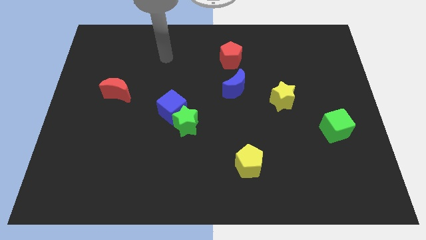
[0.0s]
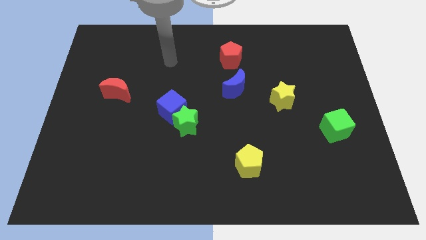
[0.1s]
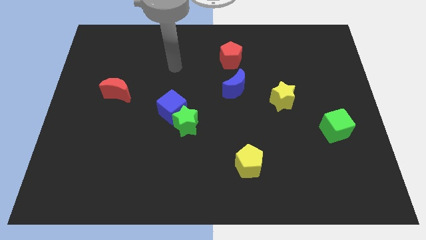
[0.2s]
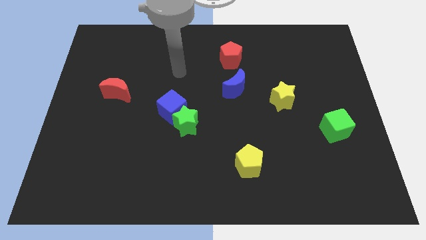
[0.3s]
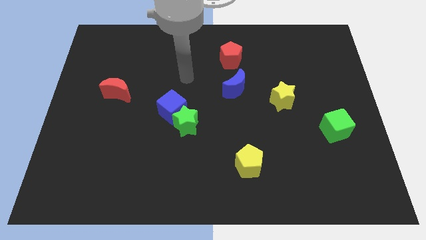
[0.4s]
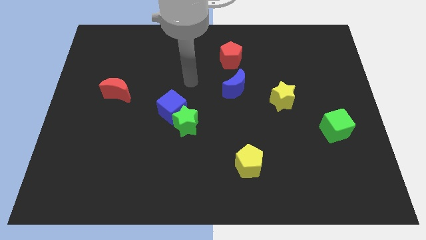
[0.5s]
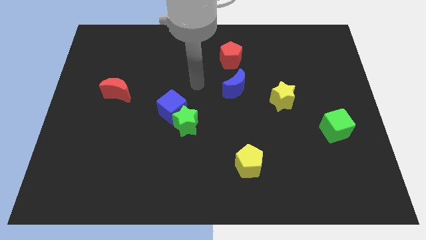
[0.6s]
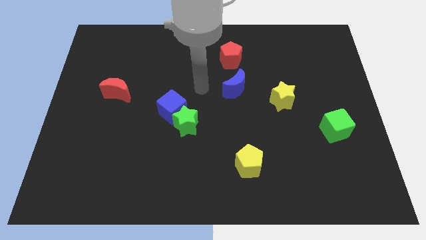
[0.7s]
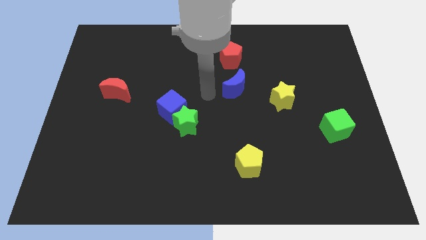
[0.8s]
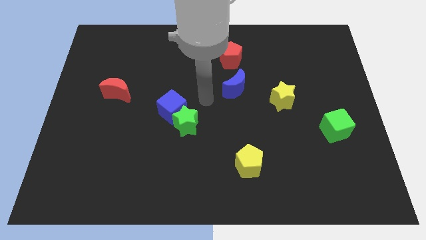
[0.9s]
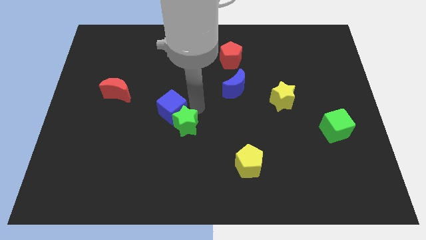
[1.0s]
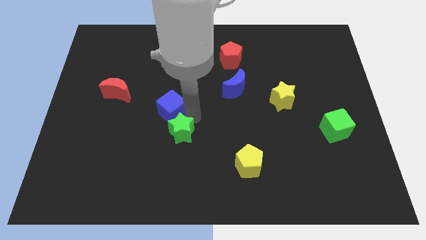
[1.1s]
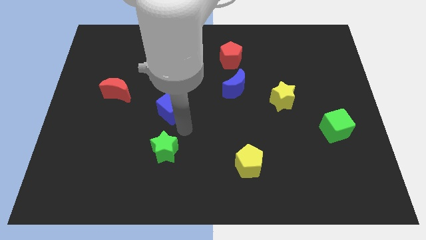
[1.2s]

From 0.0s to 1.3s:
pull the blue cube apart from the green star

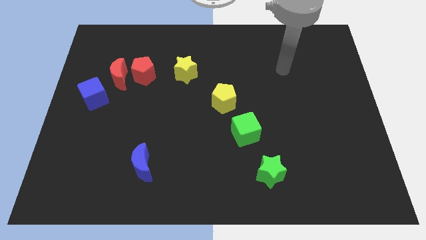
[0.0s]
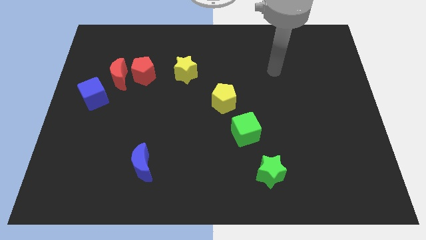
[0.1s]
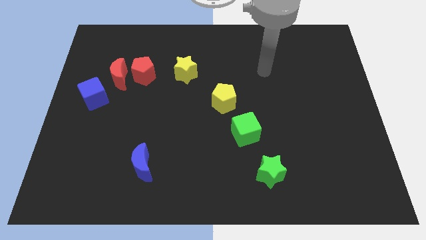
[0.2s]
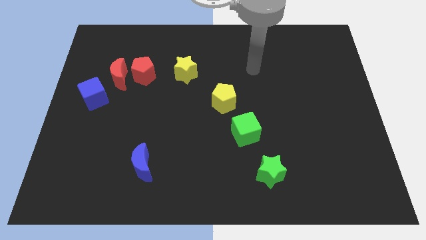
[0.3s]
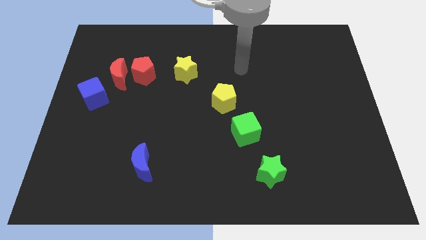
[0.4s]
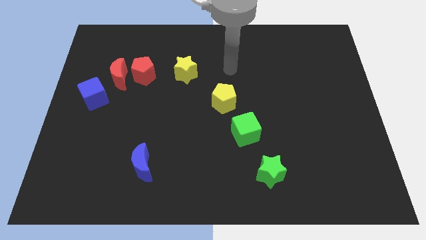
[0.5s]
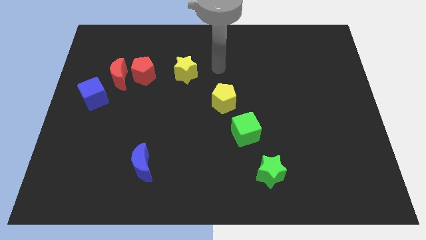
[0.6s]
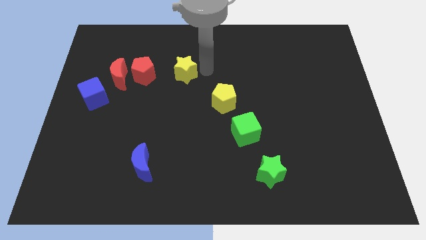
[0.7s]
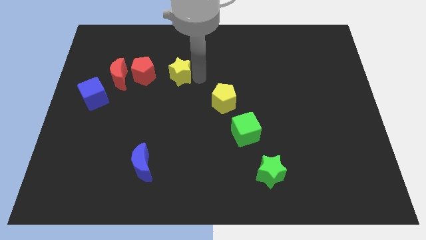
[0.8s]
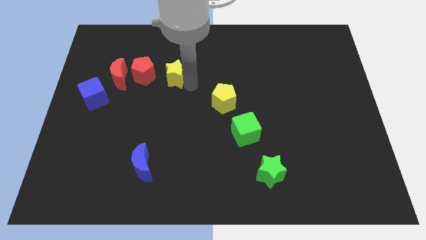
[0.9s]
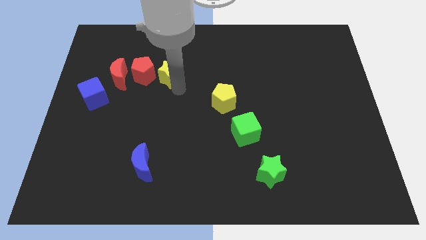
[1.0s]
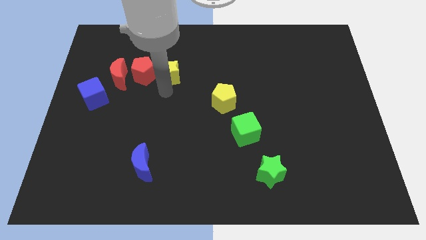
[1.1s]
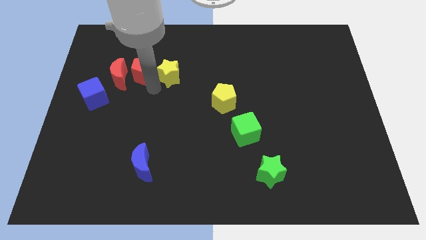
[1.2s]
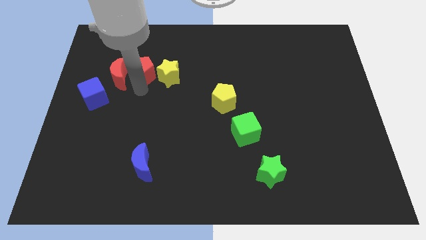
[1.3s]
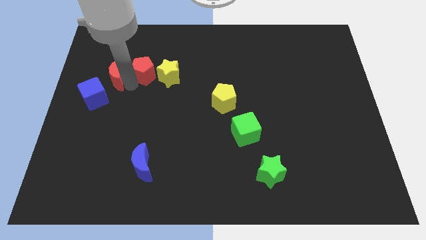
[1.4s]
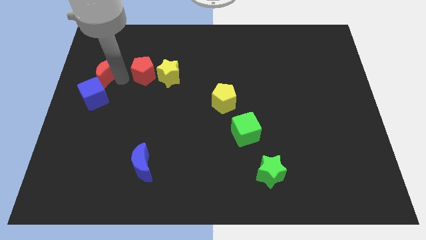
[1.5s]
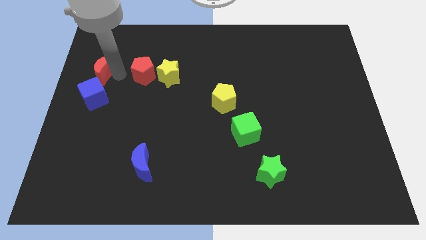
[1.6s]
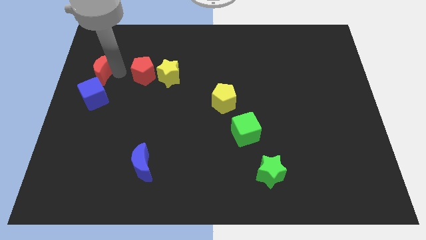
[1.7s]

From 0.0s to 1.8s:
separate the red pentagon from the red moon

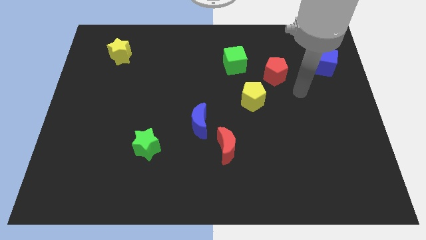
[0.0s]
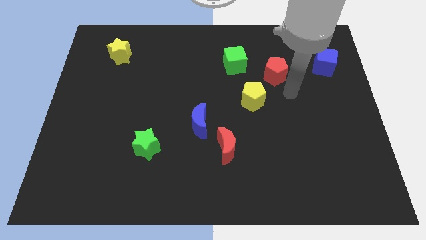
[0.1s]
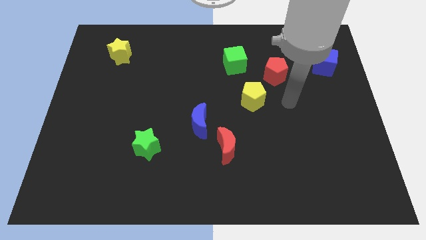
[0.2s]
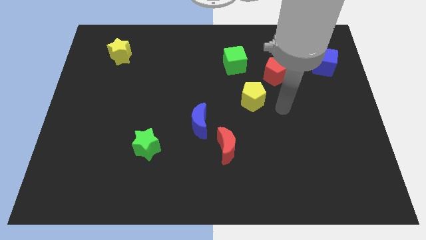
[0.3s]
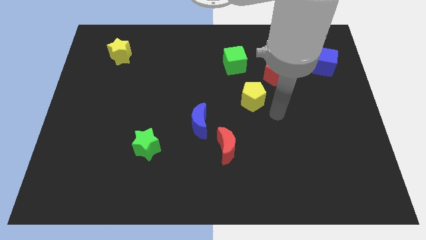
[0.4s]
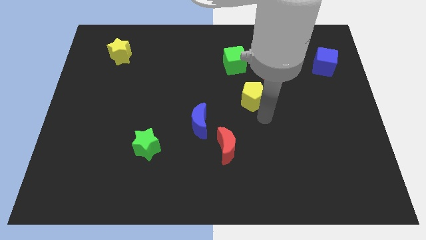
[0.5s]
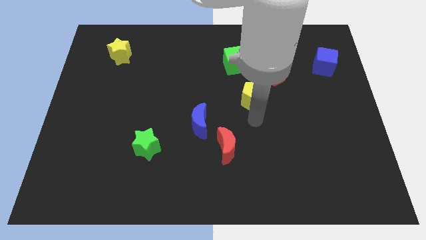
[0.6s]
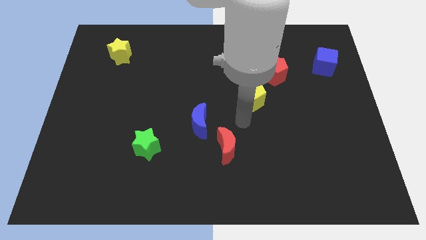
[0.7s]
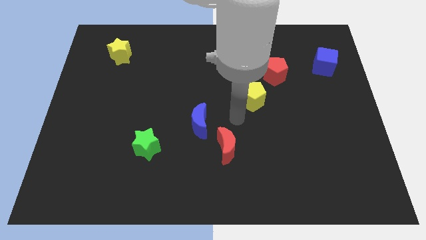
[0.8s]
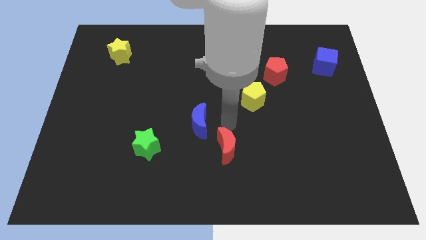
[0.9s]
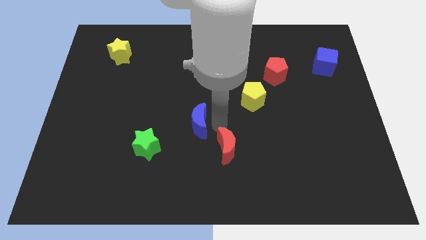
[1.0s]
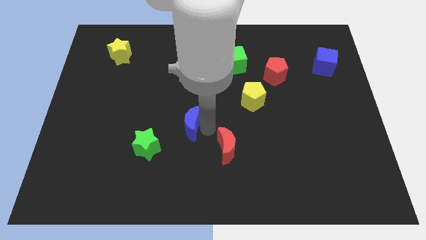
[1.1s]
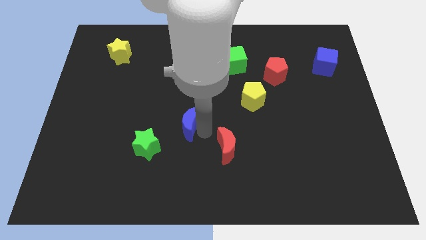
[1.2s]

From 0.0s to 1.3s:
pull the red moon apart from the blue moon

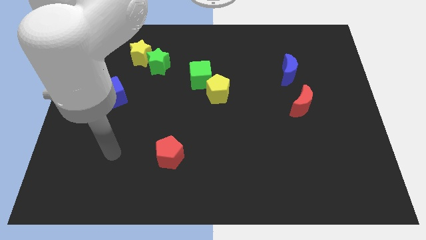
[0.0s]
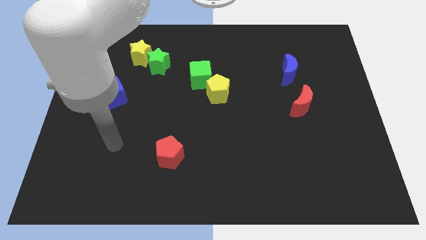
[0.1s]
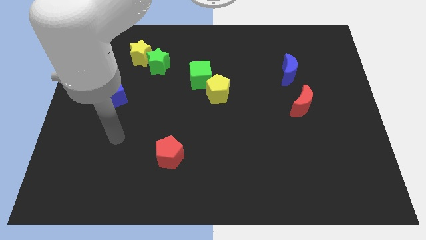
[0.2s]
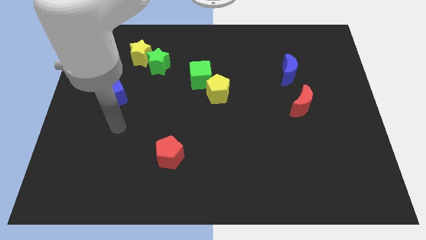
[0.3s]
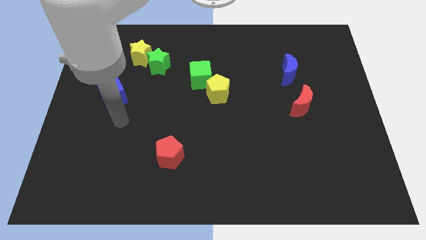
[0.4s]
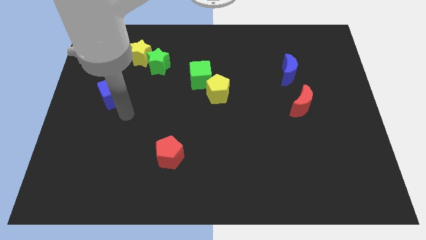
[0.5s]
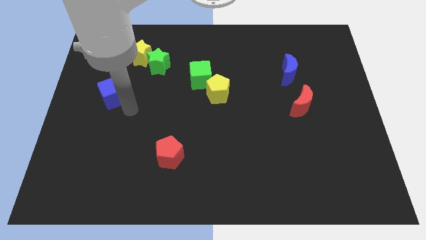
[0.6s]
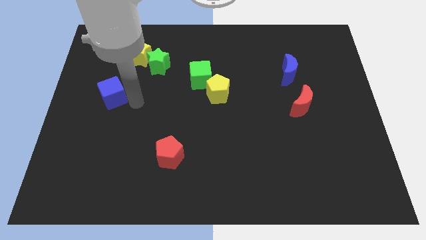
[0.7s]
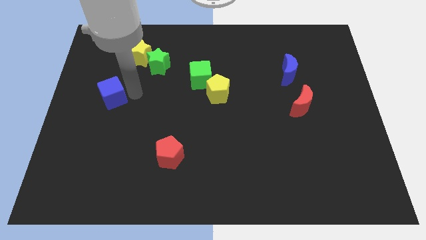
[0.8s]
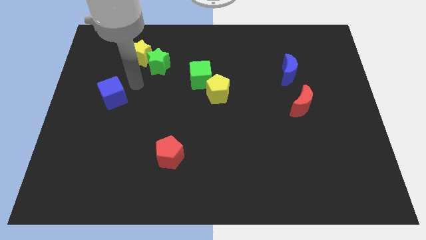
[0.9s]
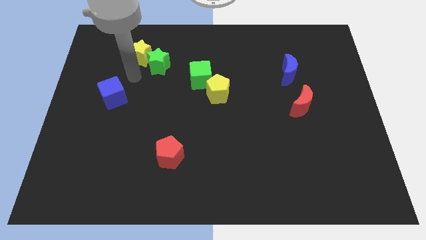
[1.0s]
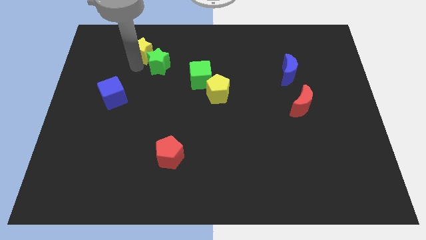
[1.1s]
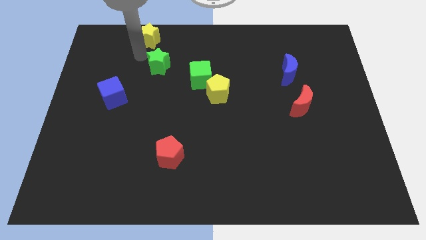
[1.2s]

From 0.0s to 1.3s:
pull the green star apart from the yellow star

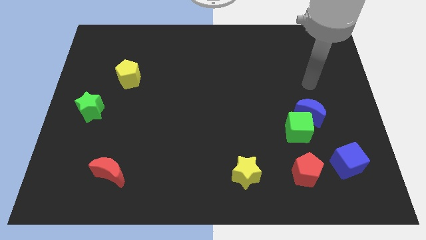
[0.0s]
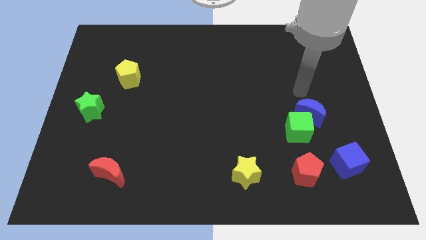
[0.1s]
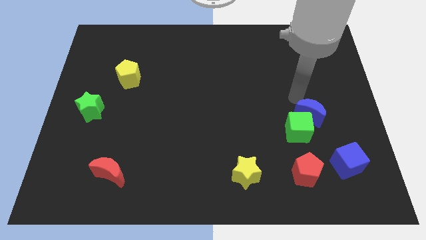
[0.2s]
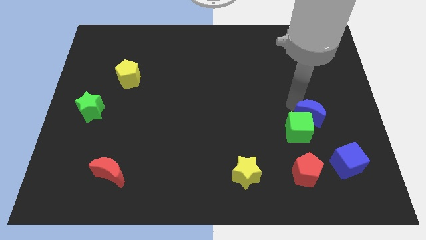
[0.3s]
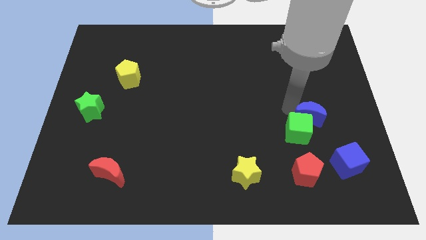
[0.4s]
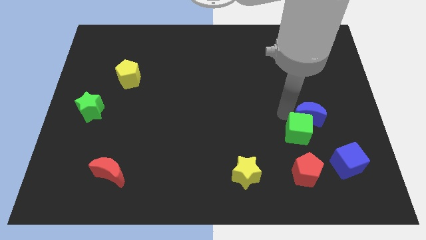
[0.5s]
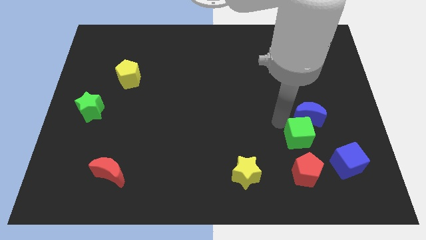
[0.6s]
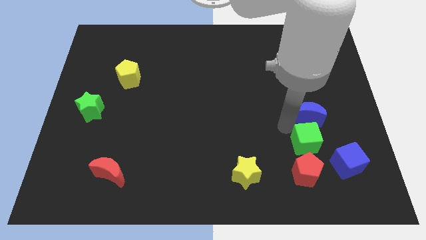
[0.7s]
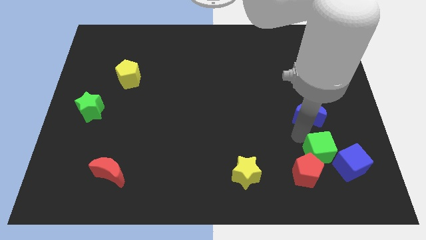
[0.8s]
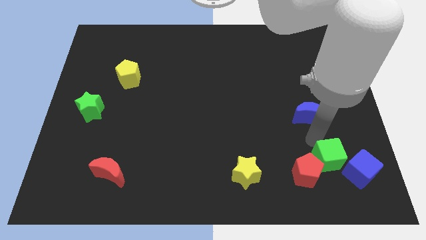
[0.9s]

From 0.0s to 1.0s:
pull the blue moon apart from the green cube

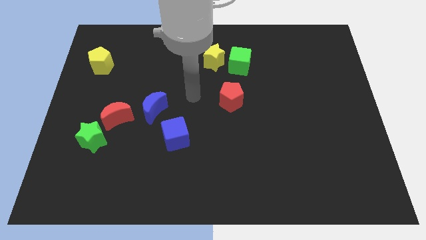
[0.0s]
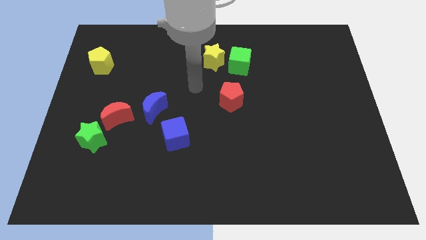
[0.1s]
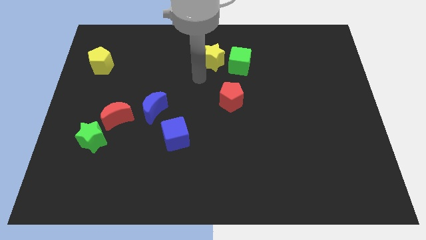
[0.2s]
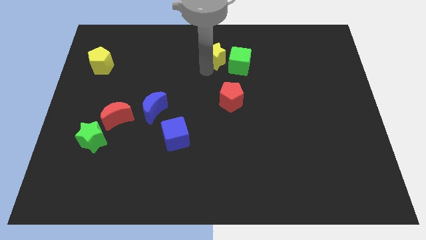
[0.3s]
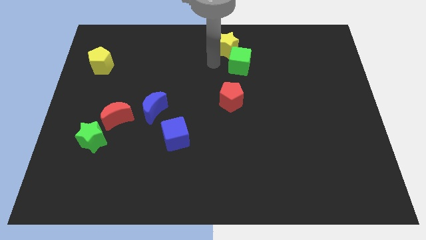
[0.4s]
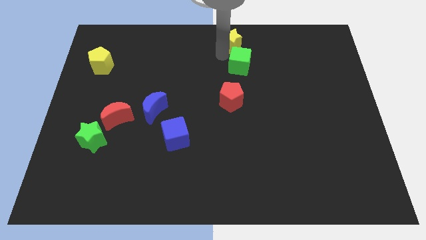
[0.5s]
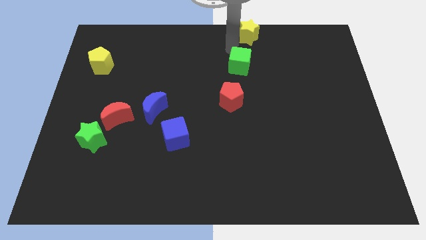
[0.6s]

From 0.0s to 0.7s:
pull the green cube apart from the yellow star

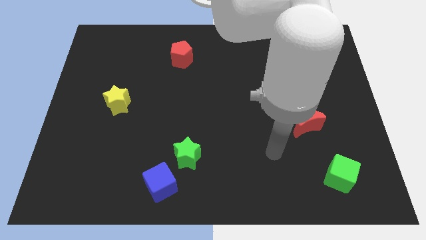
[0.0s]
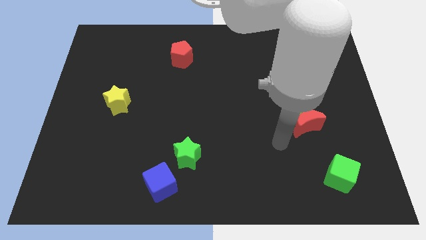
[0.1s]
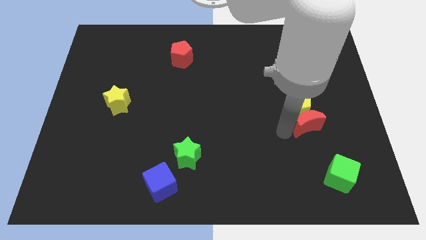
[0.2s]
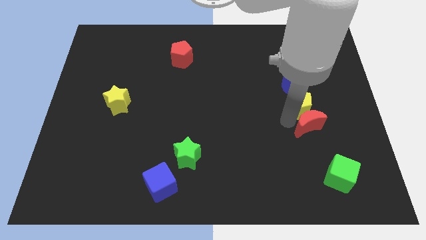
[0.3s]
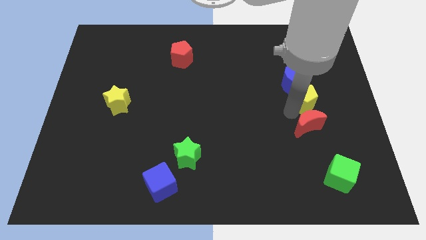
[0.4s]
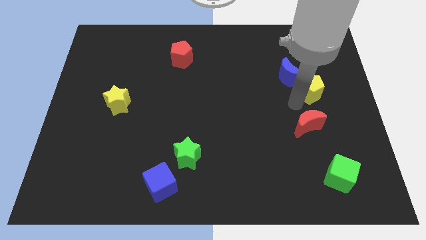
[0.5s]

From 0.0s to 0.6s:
move the red moon away from the yellow pentagon

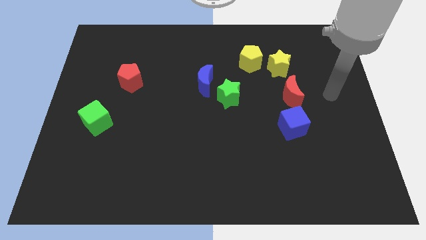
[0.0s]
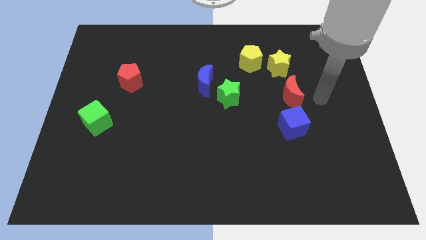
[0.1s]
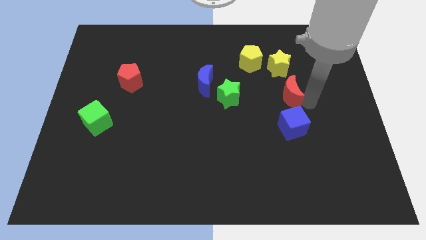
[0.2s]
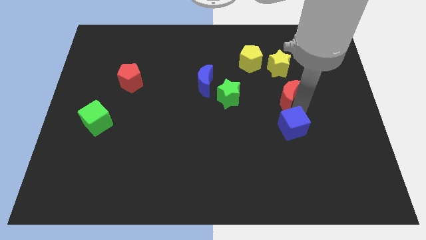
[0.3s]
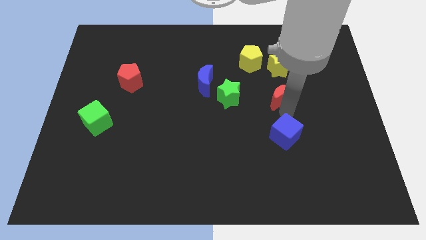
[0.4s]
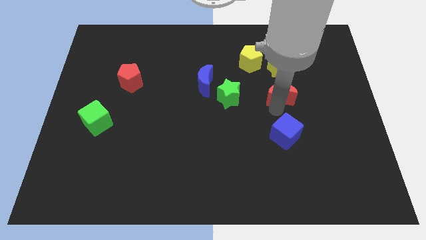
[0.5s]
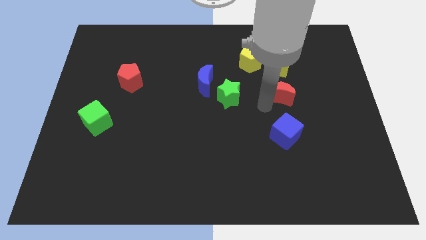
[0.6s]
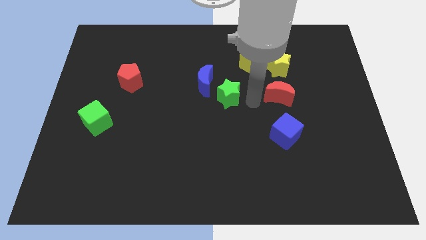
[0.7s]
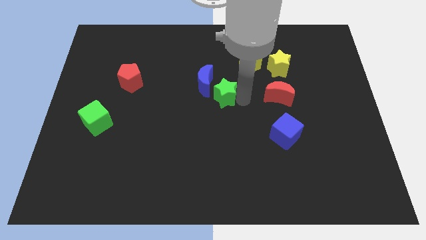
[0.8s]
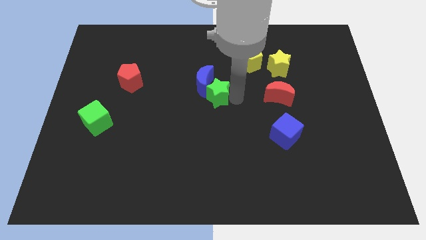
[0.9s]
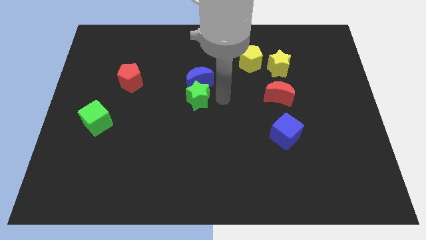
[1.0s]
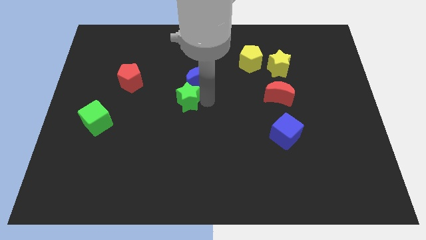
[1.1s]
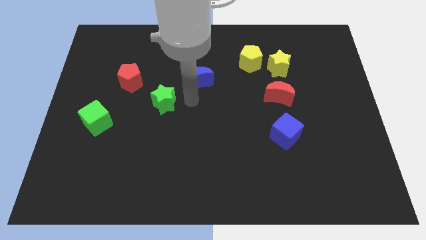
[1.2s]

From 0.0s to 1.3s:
pull the blue moon apart from the green star

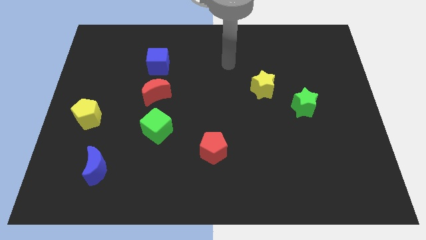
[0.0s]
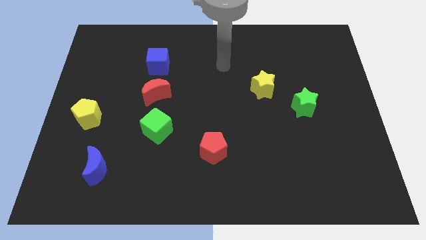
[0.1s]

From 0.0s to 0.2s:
pull the blue cube apart from the red moon
